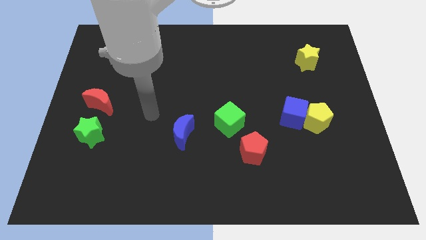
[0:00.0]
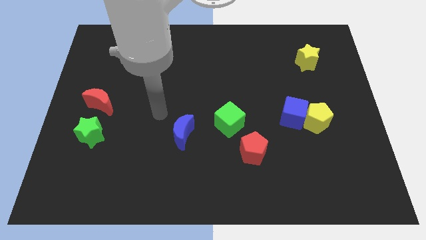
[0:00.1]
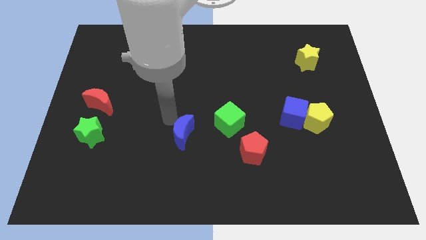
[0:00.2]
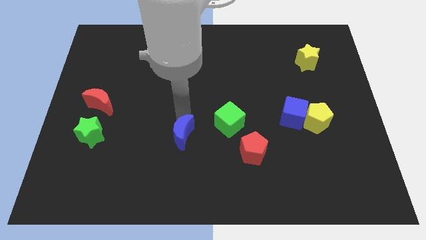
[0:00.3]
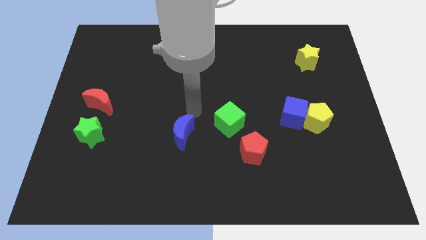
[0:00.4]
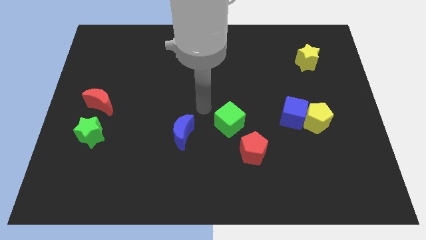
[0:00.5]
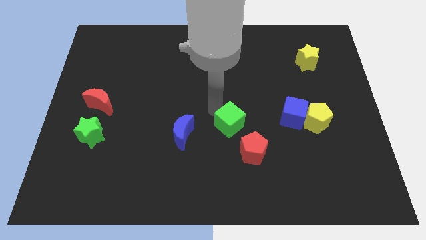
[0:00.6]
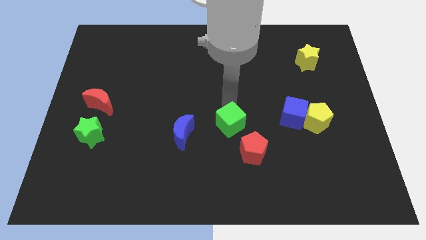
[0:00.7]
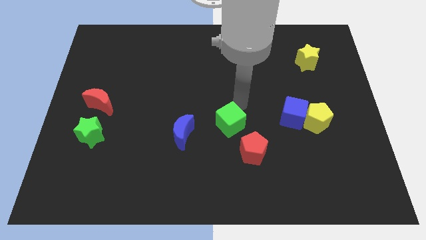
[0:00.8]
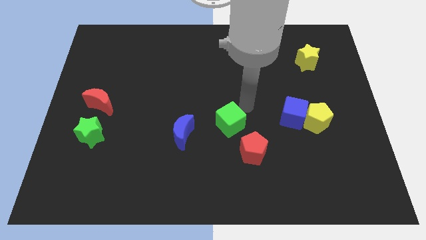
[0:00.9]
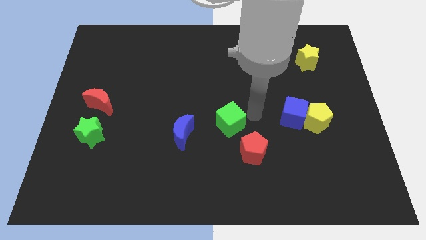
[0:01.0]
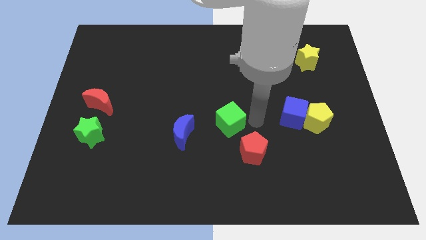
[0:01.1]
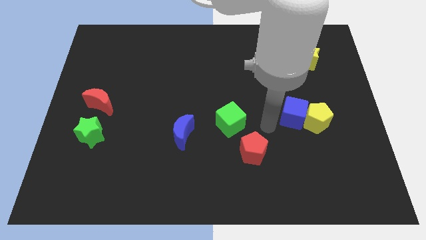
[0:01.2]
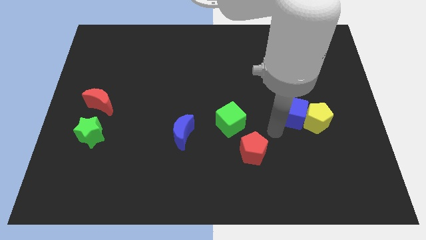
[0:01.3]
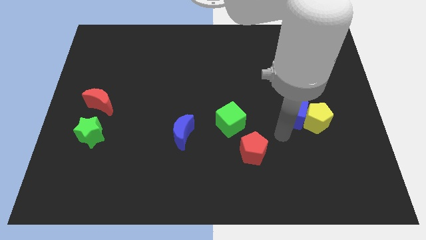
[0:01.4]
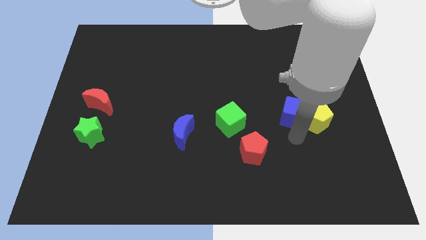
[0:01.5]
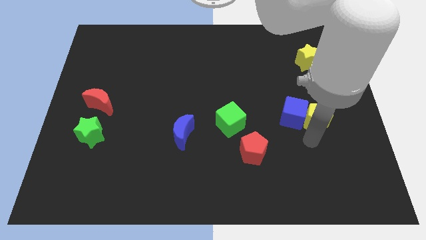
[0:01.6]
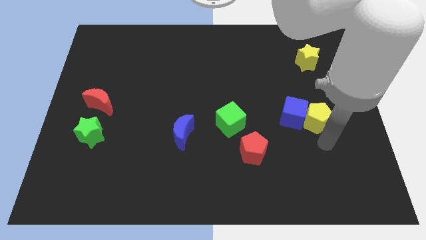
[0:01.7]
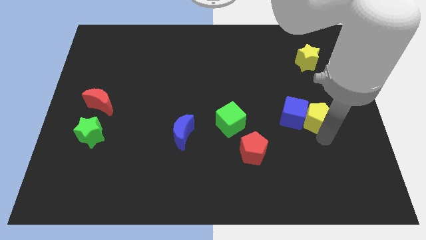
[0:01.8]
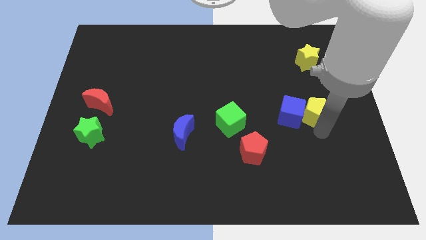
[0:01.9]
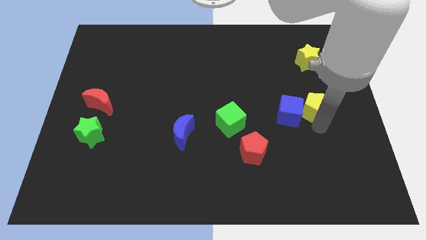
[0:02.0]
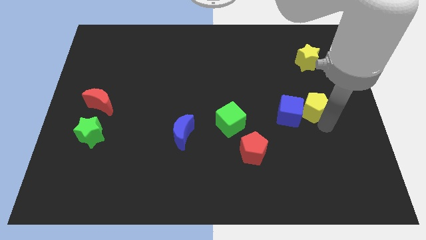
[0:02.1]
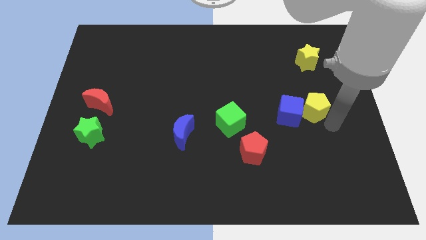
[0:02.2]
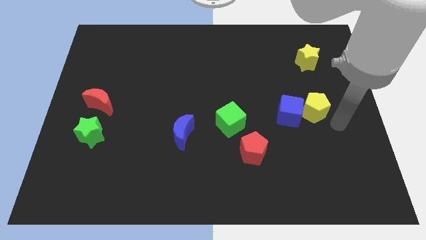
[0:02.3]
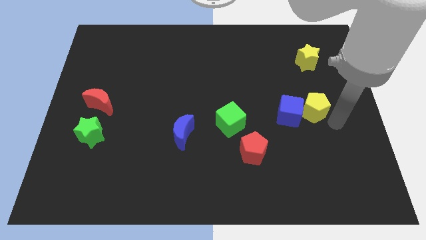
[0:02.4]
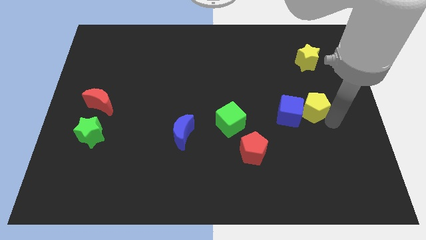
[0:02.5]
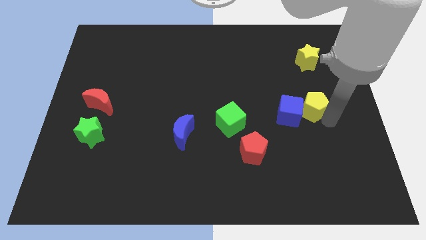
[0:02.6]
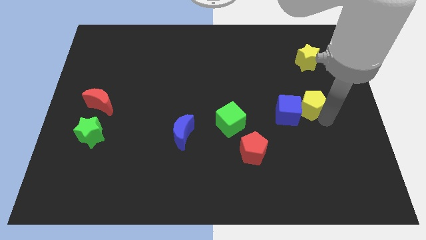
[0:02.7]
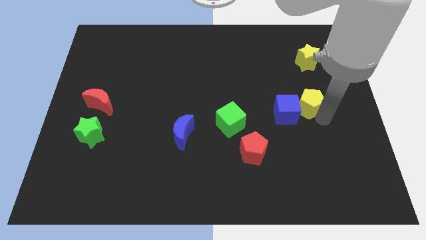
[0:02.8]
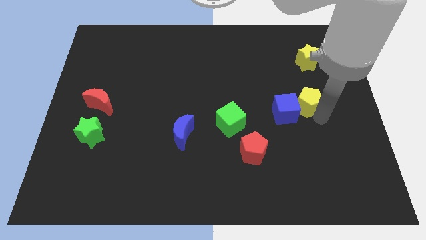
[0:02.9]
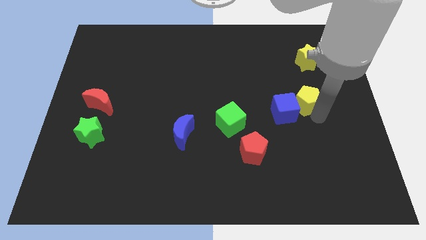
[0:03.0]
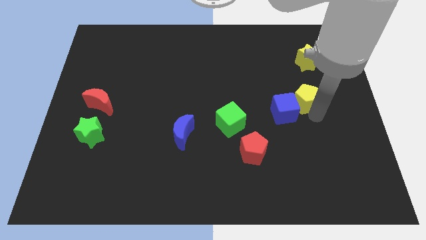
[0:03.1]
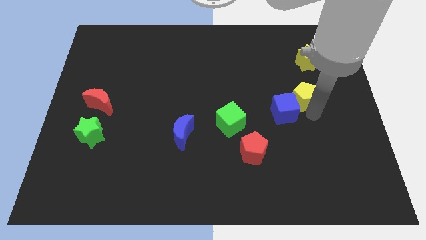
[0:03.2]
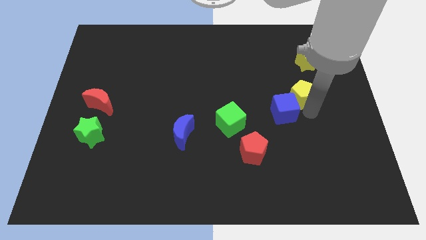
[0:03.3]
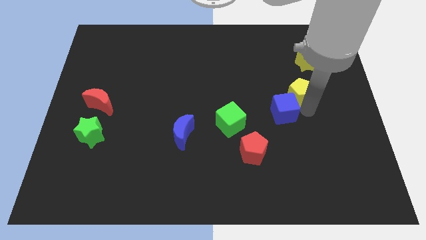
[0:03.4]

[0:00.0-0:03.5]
push the yellow pentagon a bit diagonally up and left

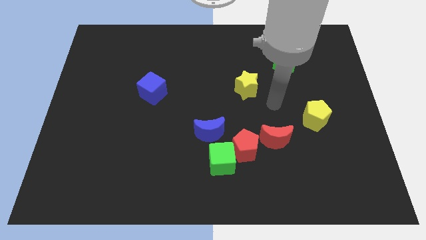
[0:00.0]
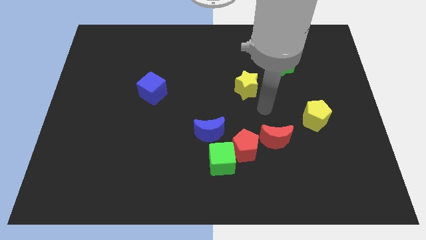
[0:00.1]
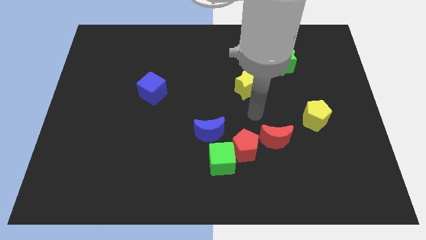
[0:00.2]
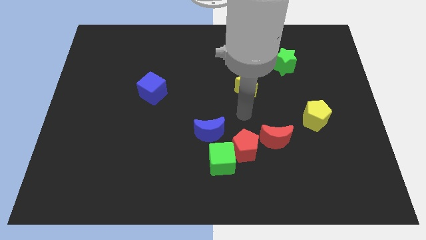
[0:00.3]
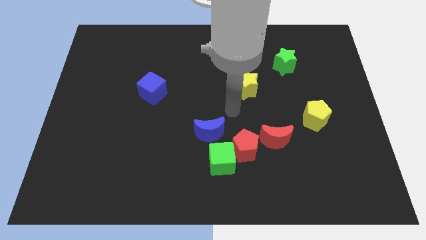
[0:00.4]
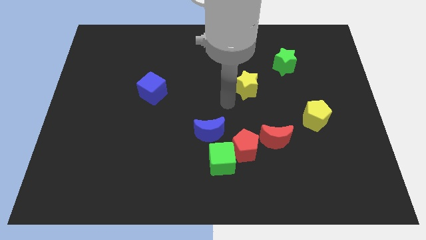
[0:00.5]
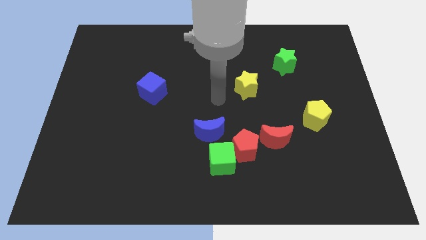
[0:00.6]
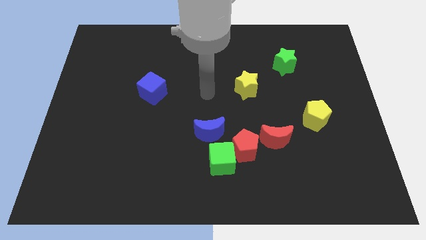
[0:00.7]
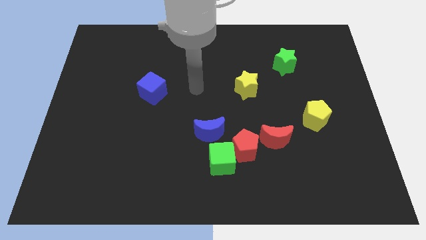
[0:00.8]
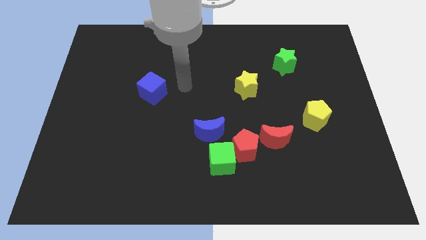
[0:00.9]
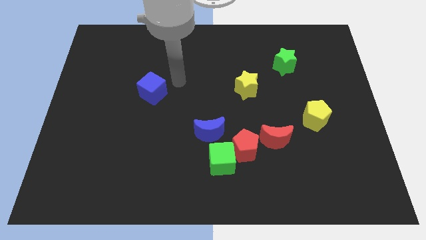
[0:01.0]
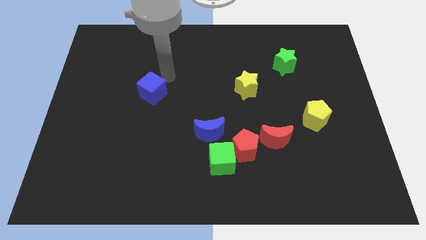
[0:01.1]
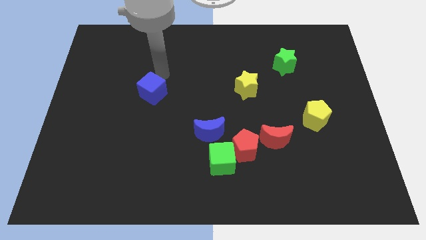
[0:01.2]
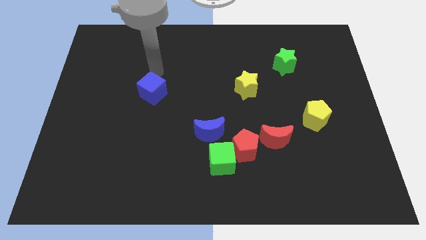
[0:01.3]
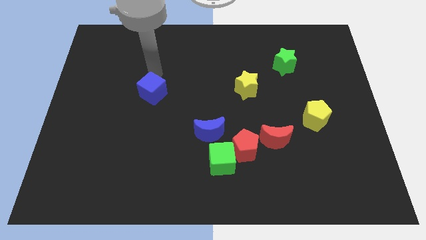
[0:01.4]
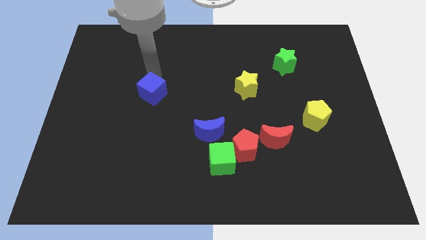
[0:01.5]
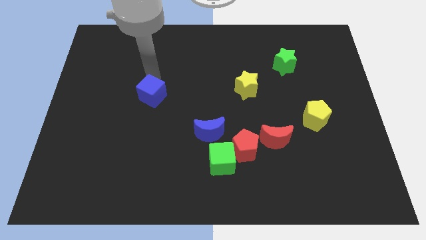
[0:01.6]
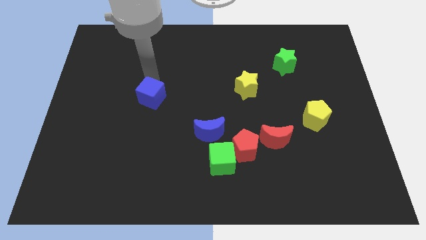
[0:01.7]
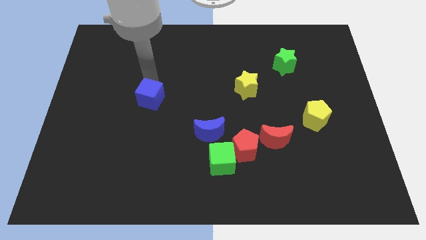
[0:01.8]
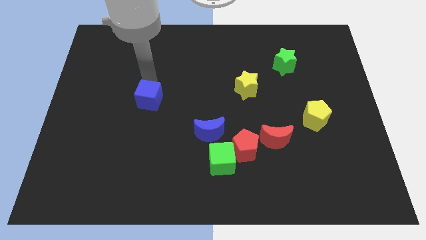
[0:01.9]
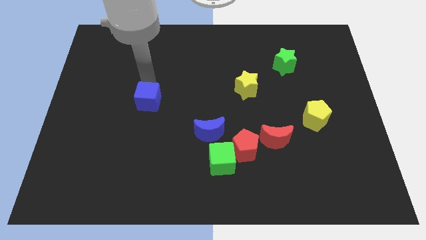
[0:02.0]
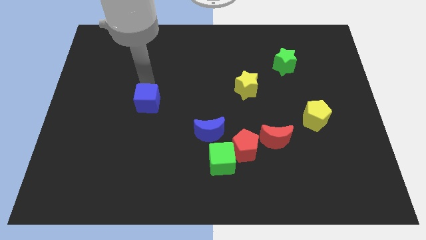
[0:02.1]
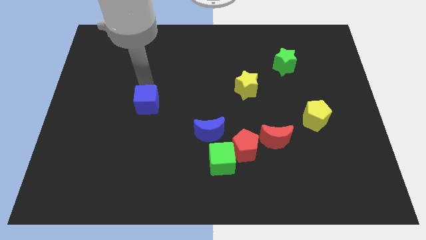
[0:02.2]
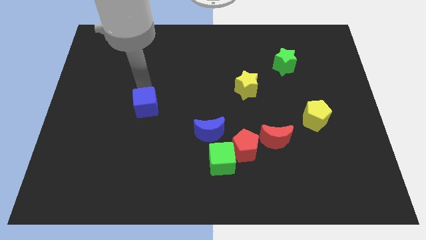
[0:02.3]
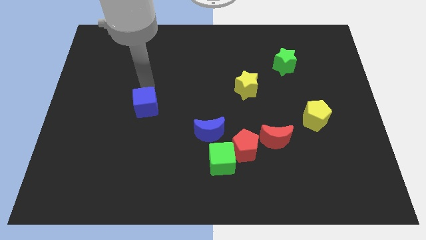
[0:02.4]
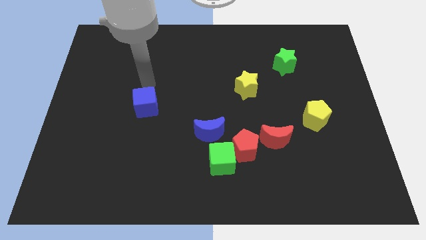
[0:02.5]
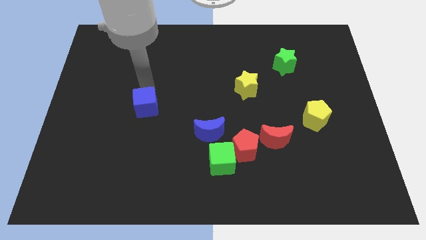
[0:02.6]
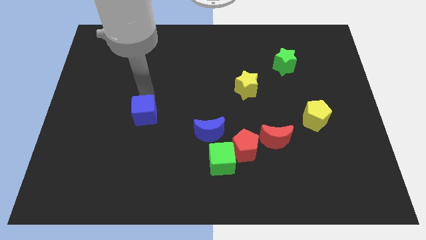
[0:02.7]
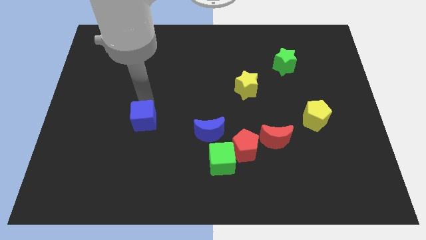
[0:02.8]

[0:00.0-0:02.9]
slightly slide the blue cube down

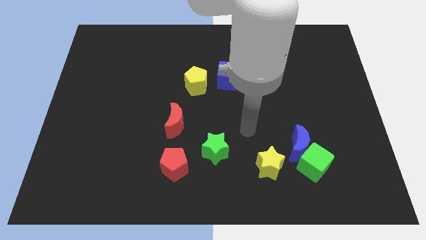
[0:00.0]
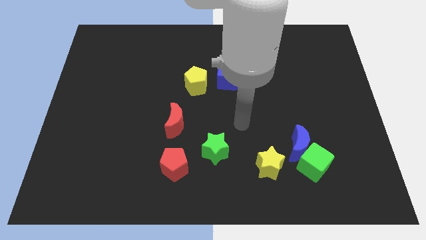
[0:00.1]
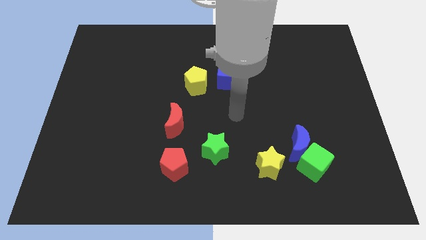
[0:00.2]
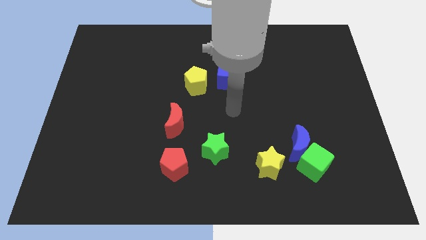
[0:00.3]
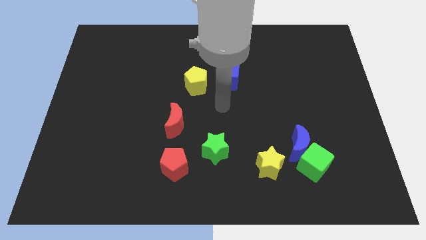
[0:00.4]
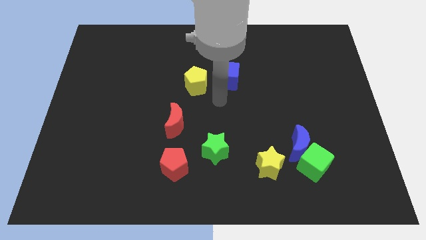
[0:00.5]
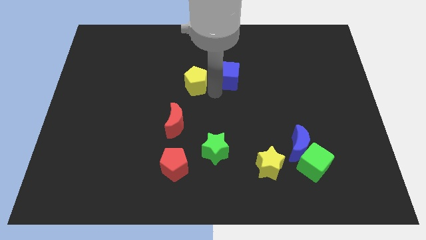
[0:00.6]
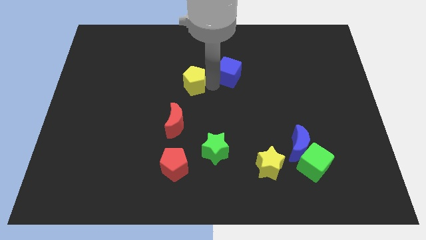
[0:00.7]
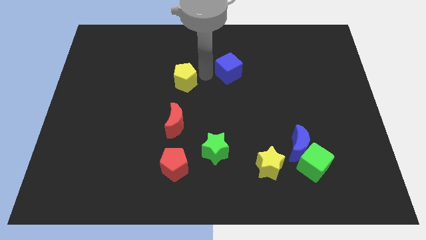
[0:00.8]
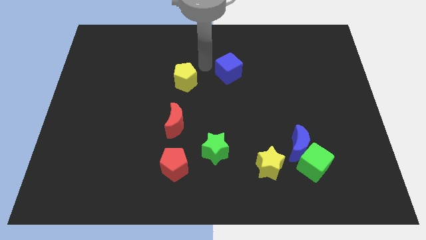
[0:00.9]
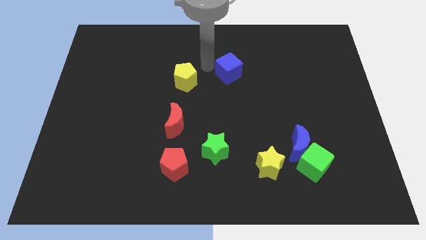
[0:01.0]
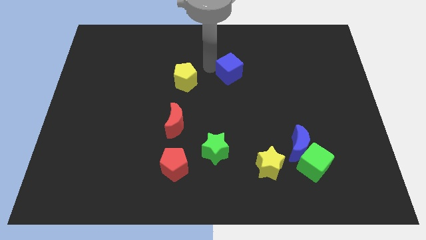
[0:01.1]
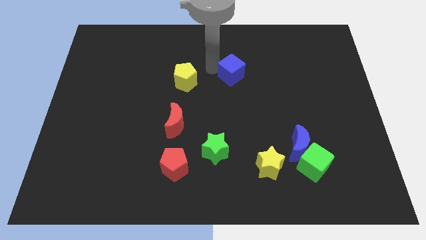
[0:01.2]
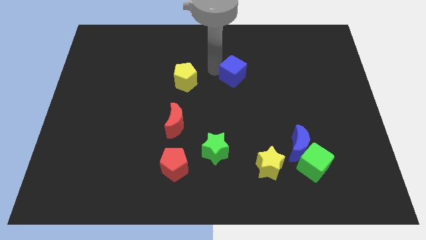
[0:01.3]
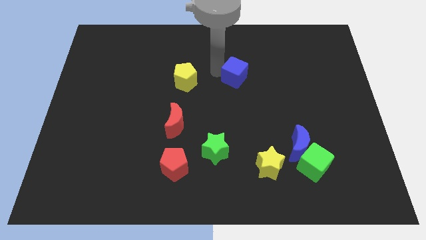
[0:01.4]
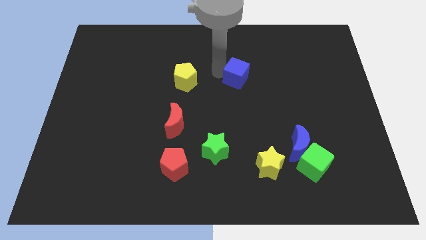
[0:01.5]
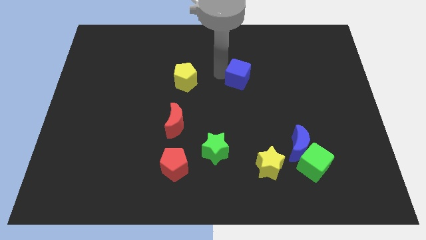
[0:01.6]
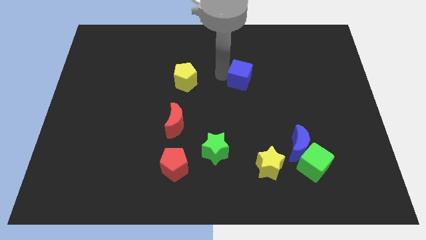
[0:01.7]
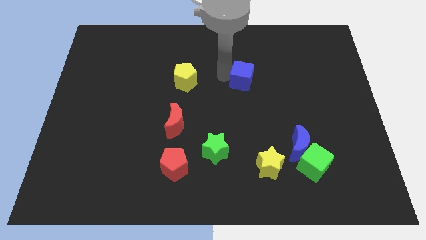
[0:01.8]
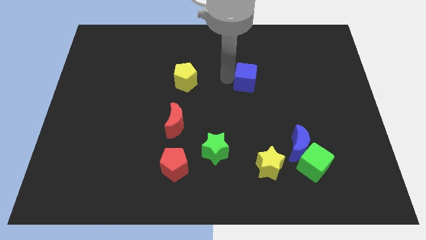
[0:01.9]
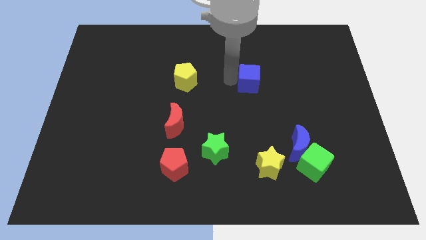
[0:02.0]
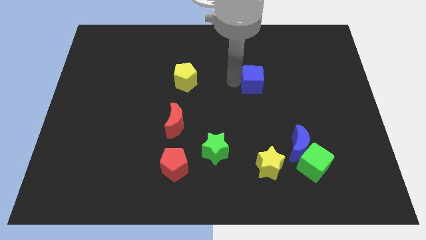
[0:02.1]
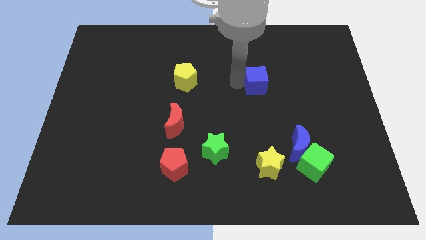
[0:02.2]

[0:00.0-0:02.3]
slightly slide the blue cube to the right

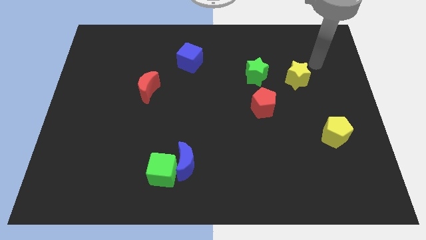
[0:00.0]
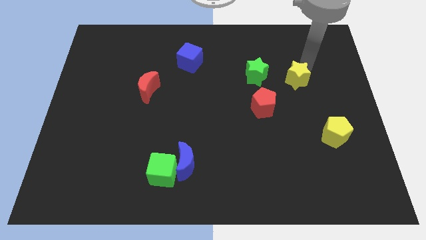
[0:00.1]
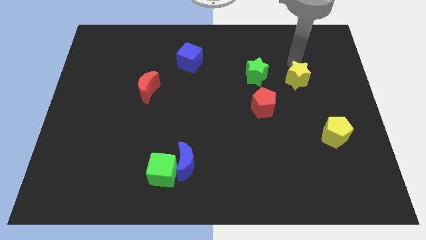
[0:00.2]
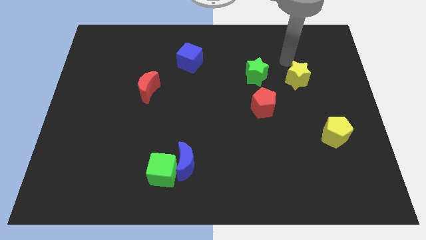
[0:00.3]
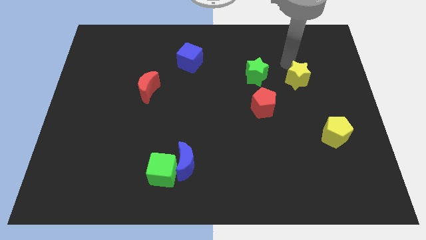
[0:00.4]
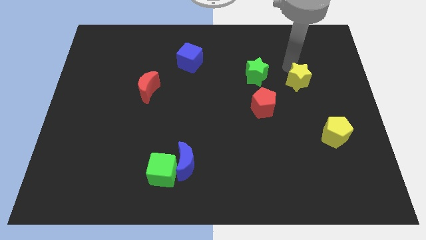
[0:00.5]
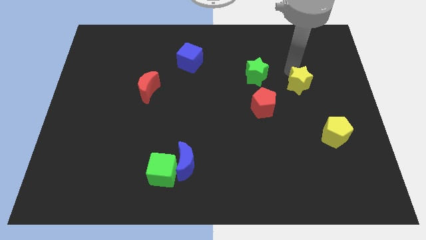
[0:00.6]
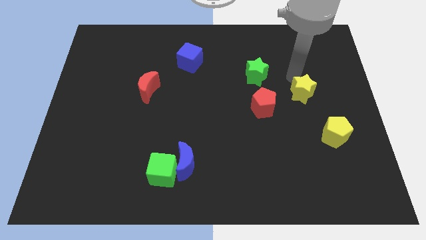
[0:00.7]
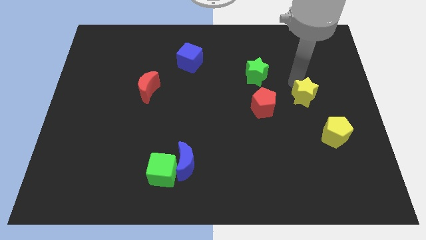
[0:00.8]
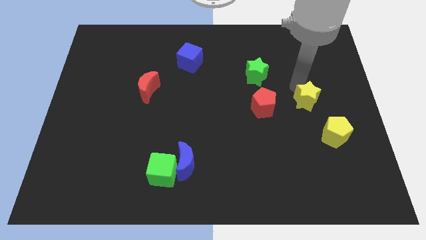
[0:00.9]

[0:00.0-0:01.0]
slightly move the yellow star downwards
